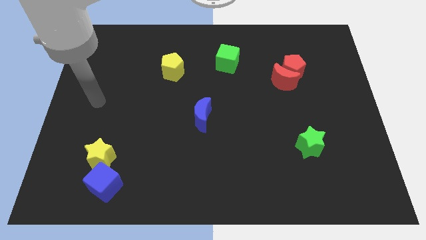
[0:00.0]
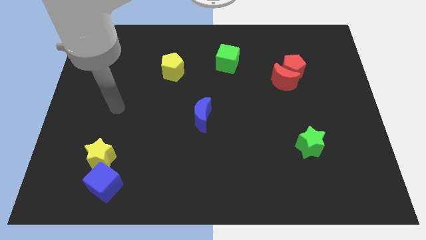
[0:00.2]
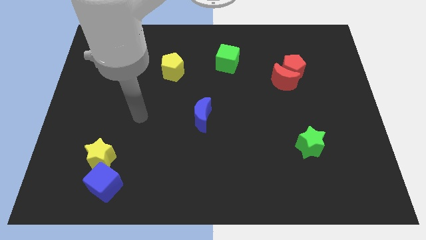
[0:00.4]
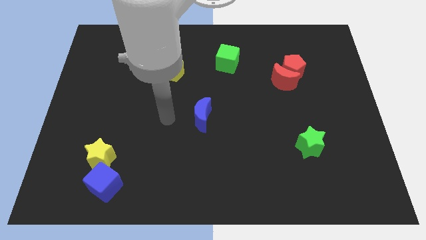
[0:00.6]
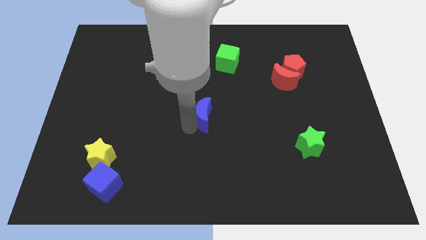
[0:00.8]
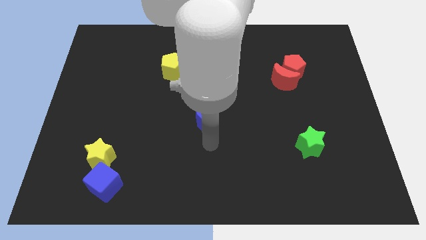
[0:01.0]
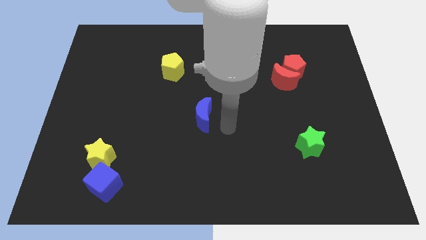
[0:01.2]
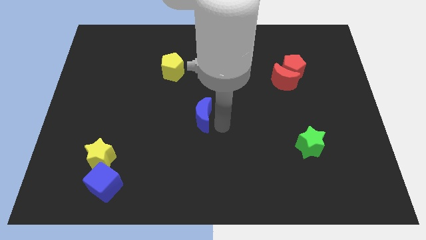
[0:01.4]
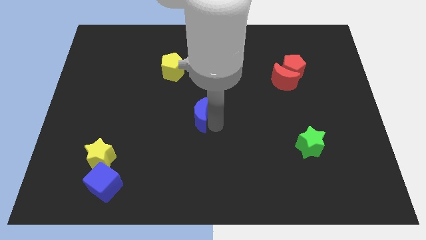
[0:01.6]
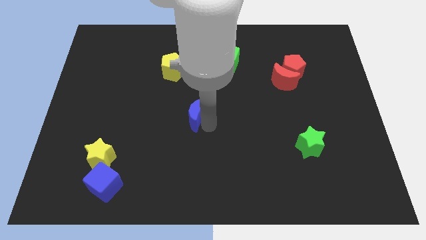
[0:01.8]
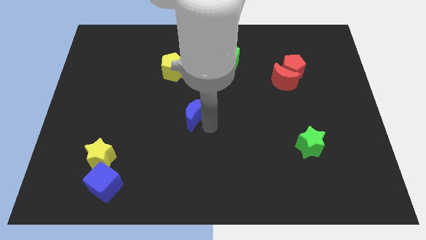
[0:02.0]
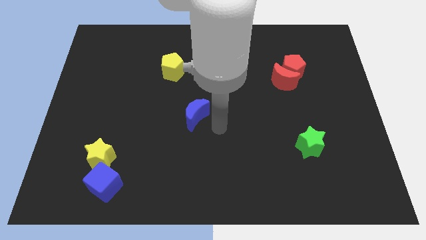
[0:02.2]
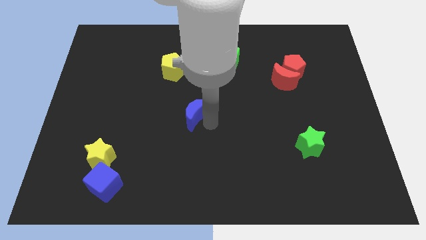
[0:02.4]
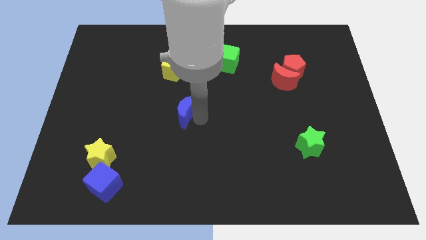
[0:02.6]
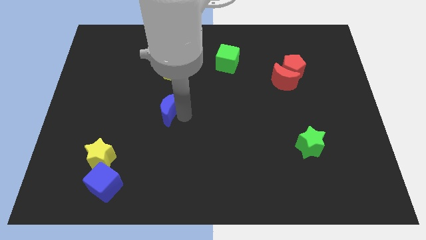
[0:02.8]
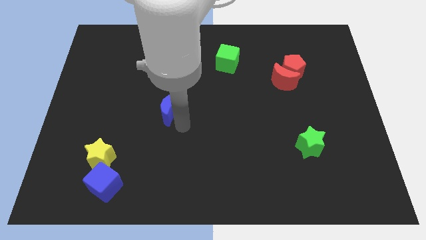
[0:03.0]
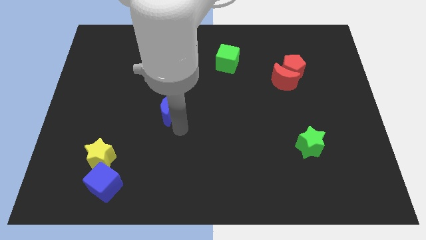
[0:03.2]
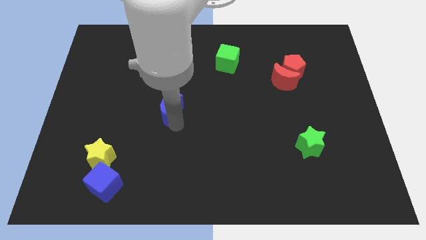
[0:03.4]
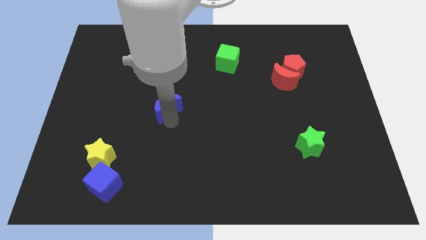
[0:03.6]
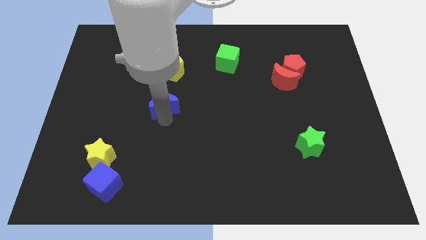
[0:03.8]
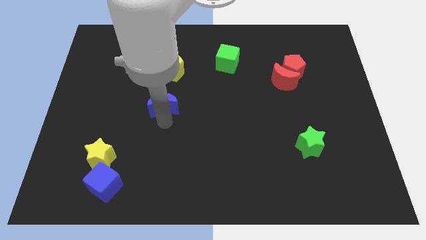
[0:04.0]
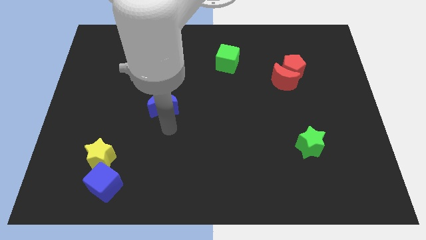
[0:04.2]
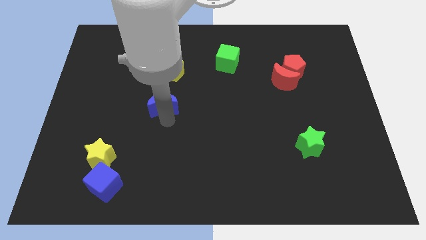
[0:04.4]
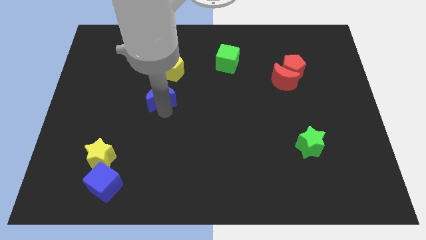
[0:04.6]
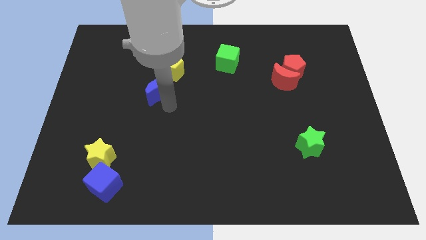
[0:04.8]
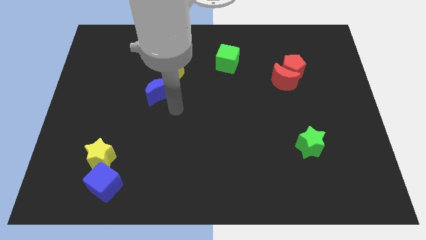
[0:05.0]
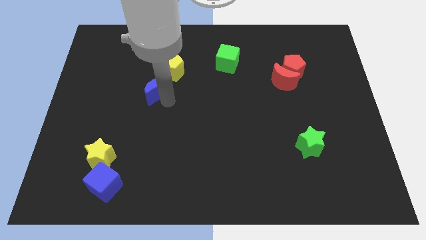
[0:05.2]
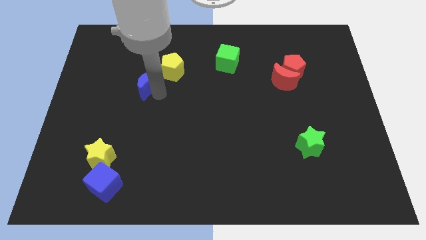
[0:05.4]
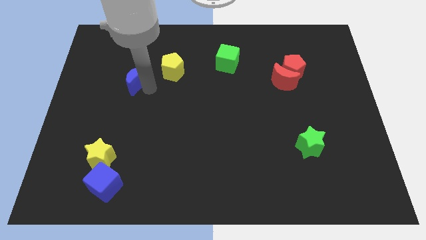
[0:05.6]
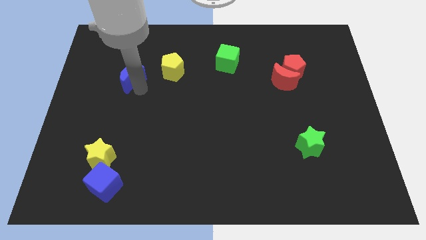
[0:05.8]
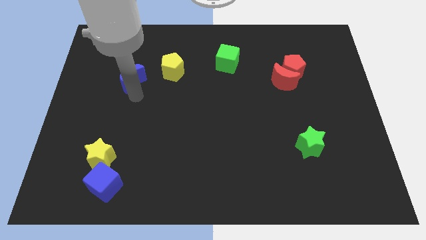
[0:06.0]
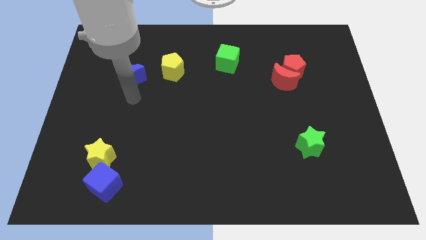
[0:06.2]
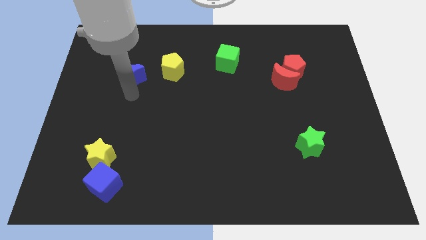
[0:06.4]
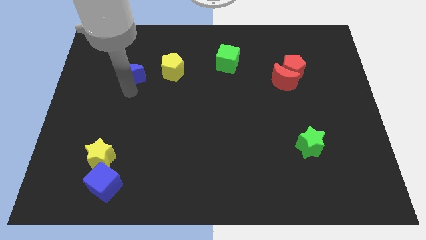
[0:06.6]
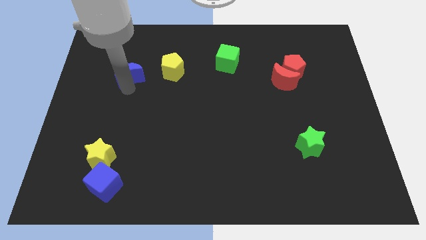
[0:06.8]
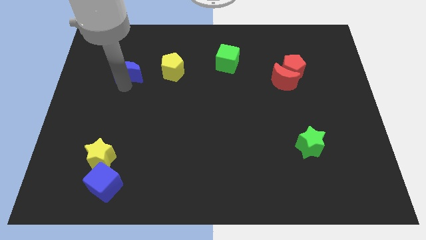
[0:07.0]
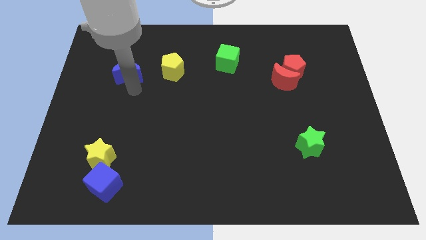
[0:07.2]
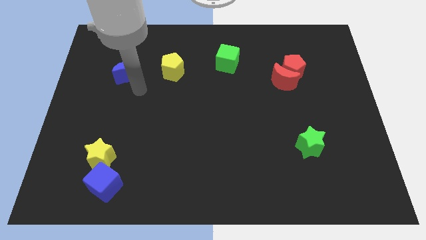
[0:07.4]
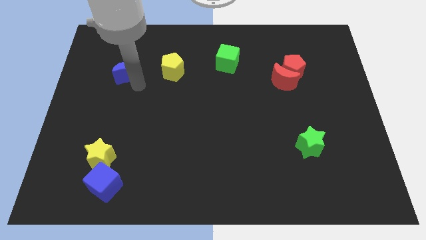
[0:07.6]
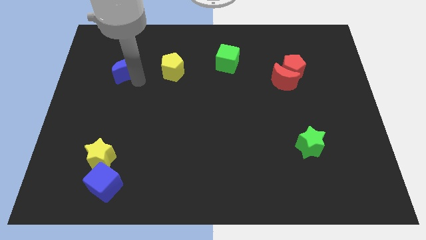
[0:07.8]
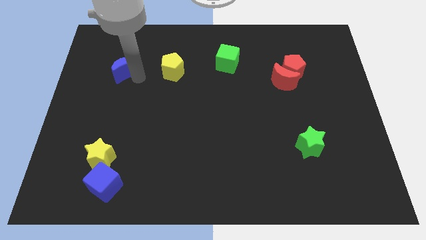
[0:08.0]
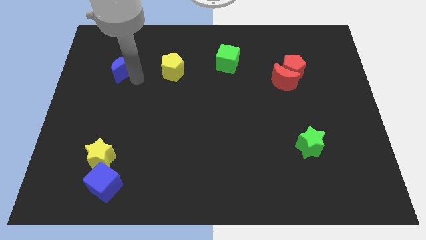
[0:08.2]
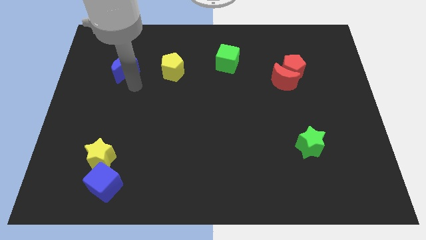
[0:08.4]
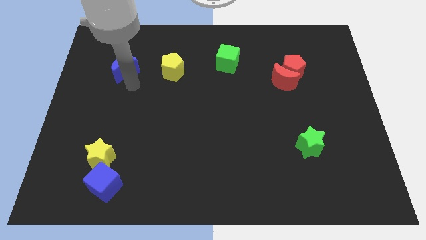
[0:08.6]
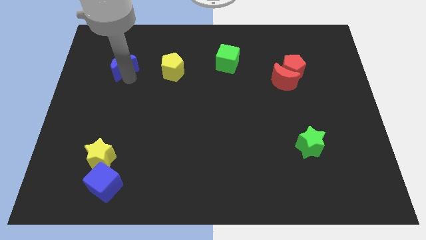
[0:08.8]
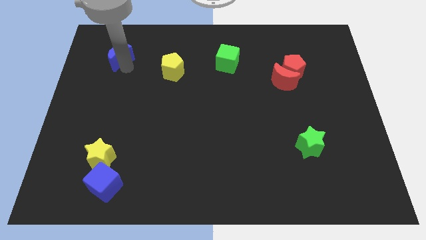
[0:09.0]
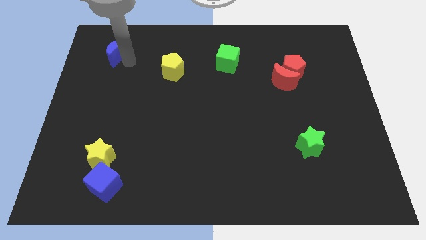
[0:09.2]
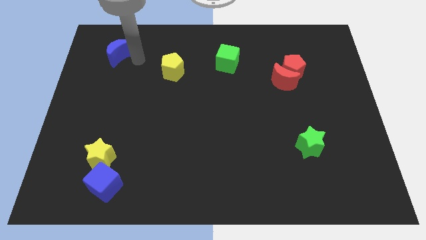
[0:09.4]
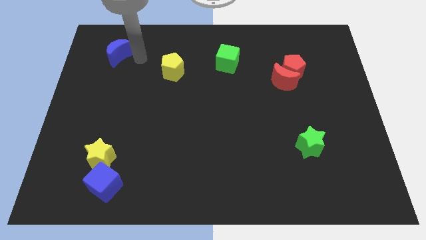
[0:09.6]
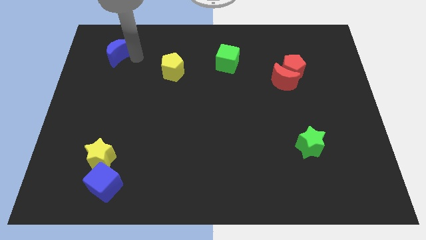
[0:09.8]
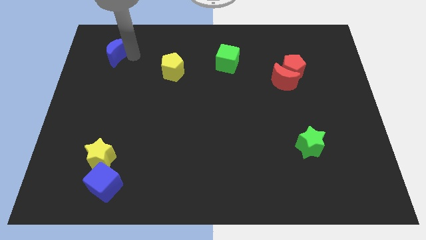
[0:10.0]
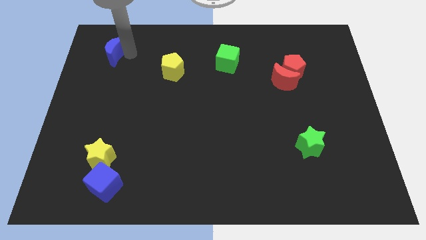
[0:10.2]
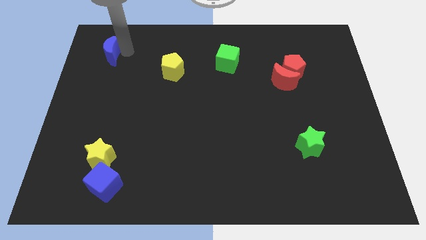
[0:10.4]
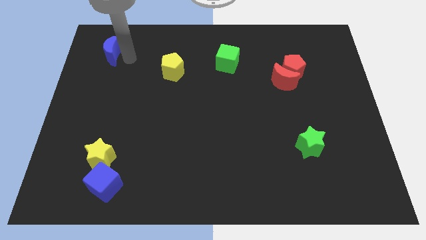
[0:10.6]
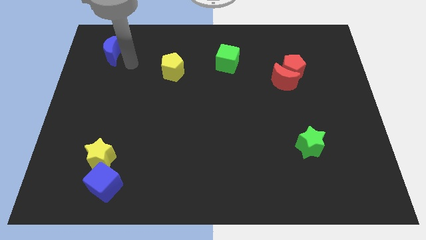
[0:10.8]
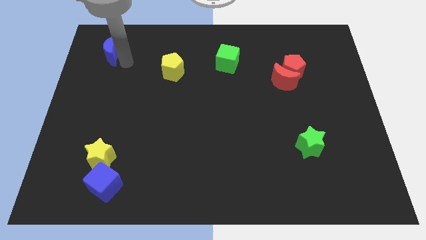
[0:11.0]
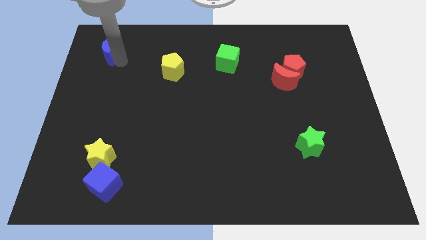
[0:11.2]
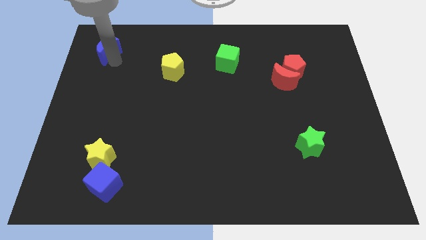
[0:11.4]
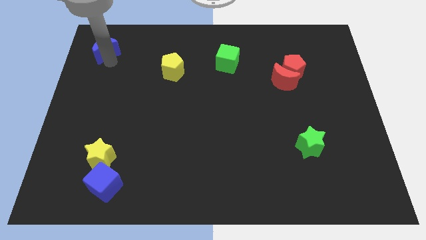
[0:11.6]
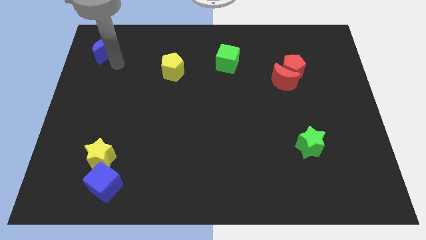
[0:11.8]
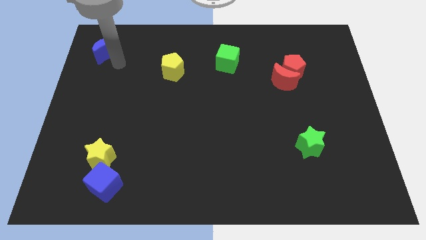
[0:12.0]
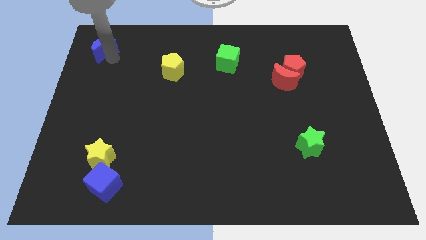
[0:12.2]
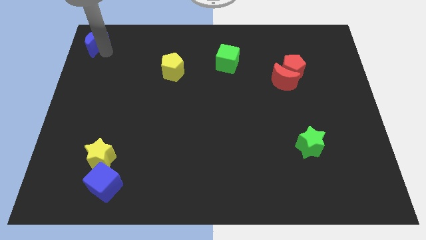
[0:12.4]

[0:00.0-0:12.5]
slide the blue moon to the upper left corner
